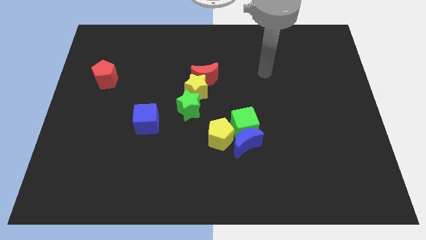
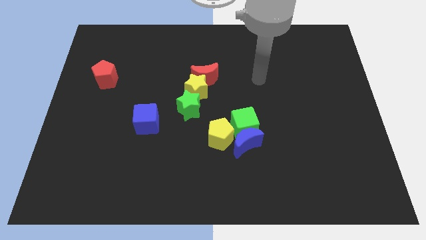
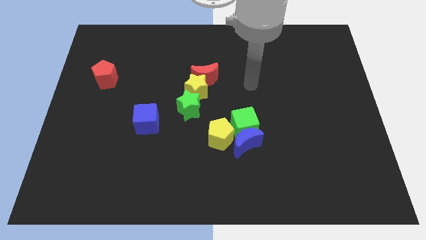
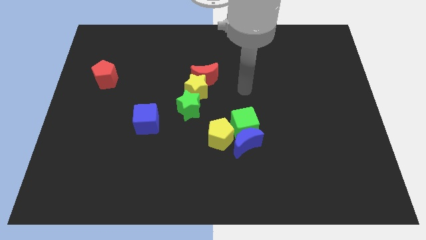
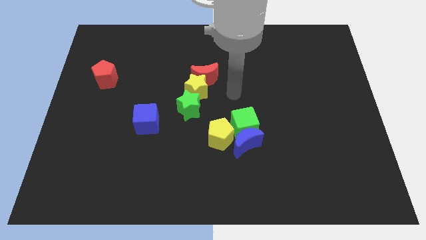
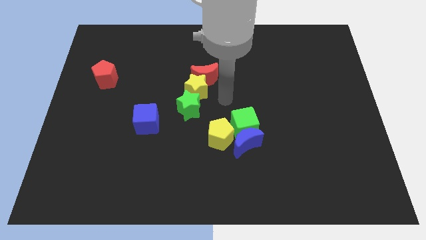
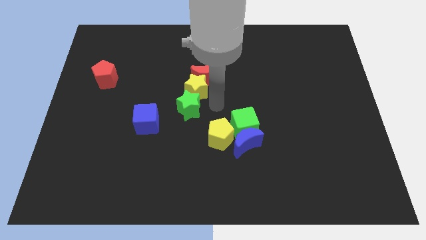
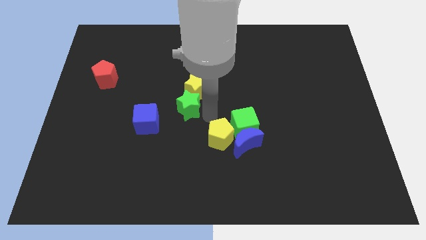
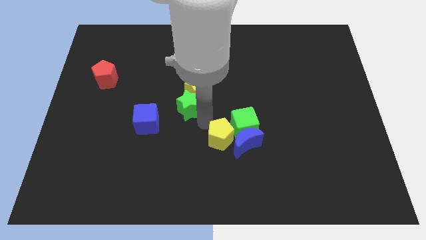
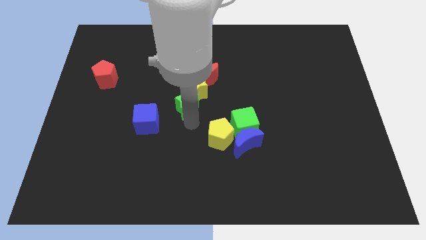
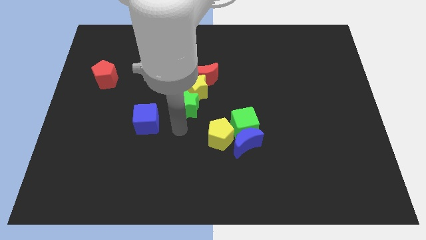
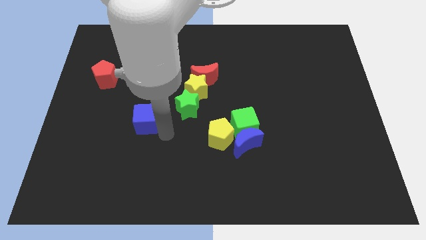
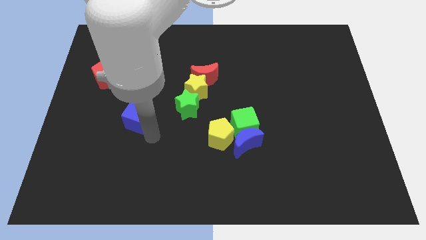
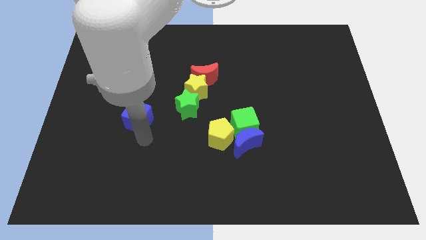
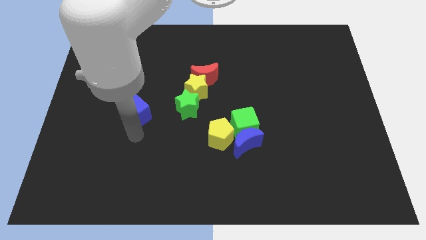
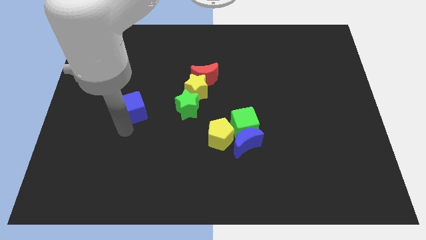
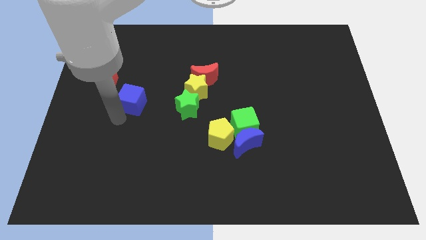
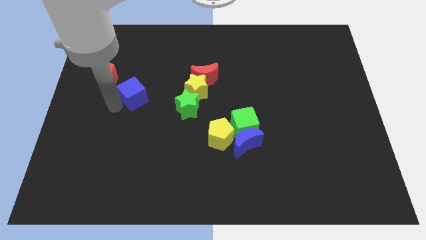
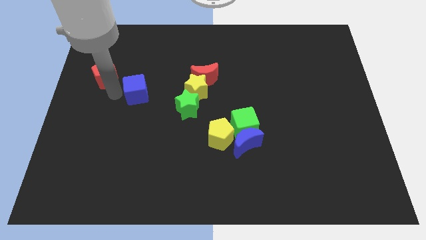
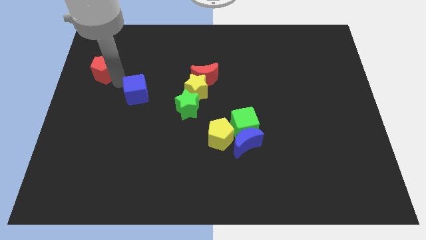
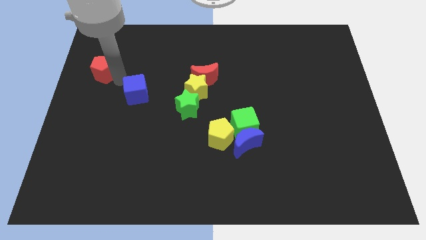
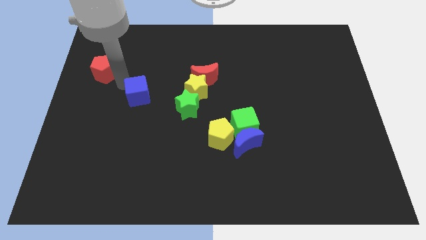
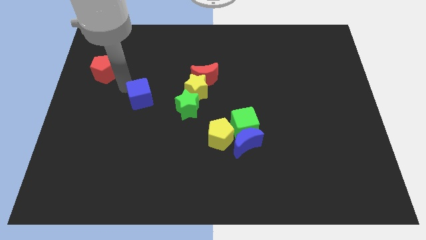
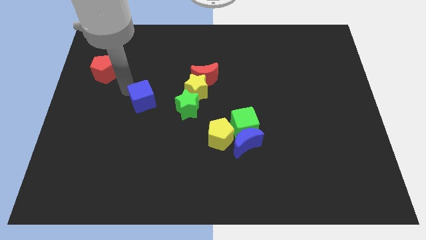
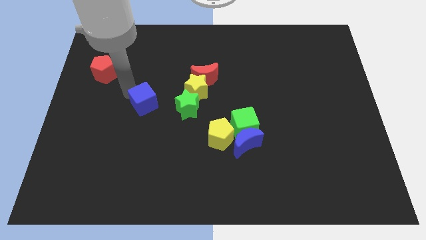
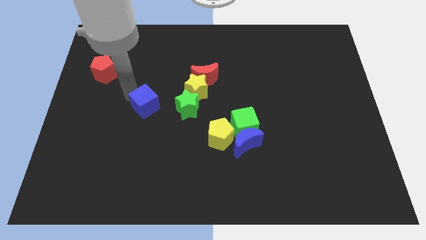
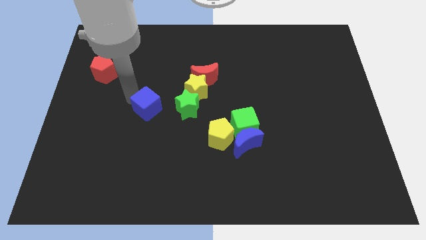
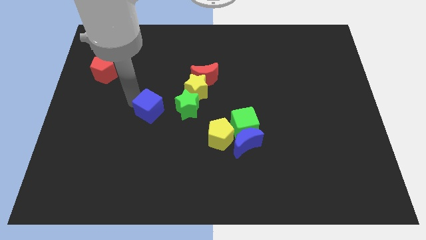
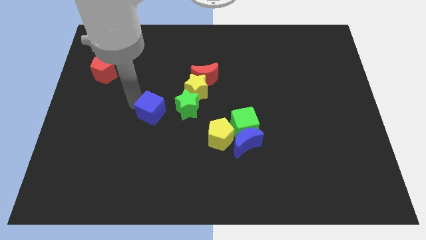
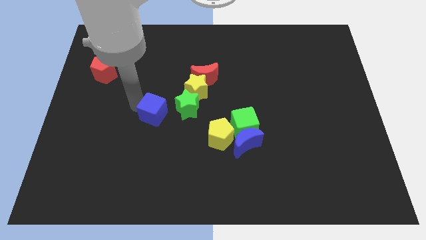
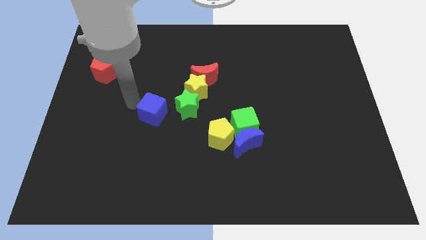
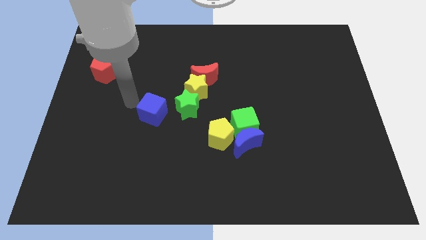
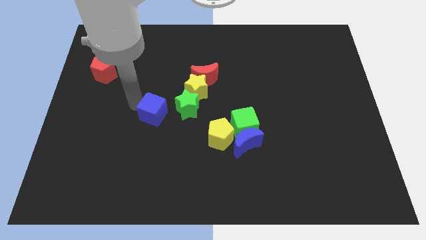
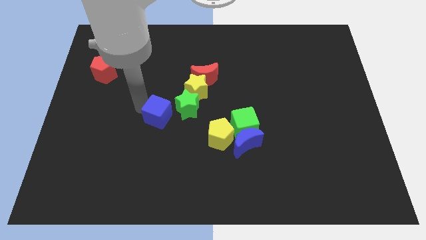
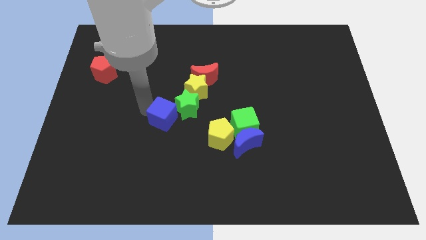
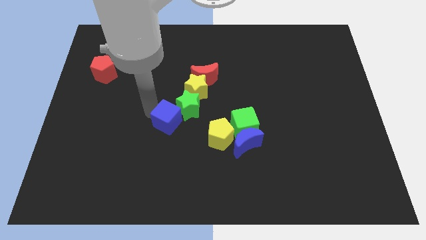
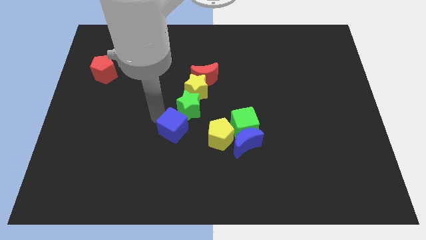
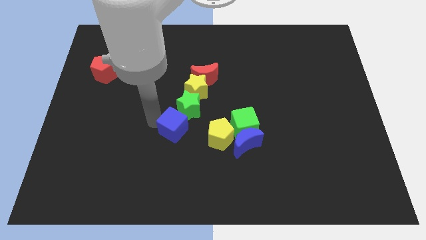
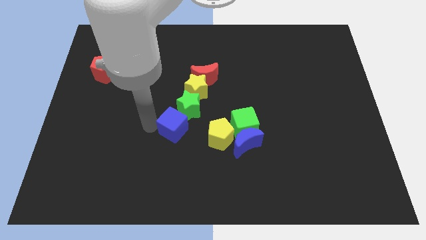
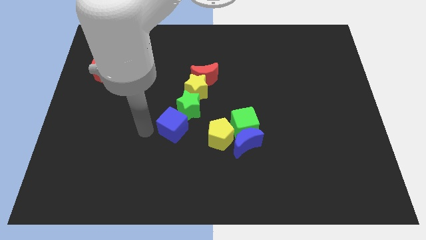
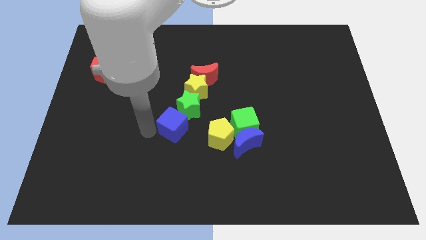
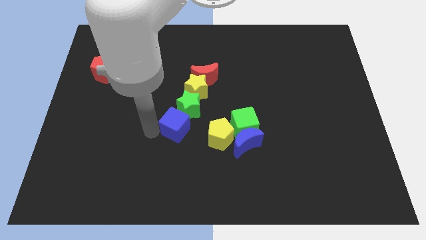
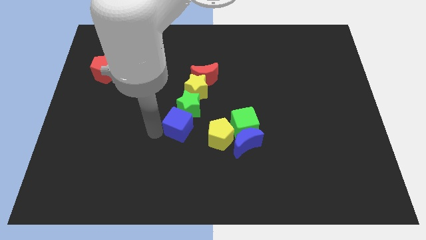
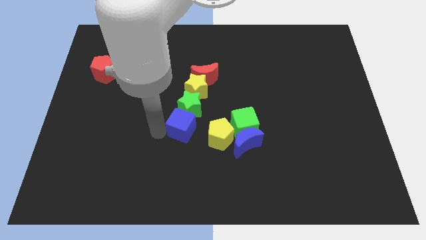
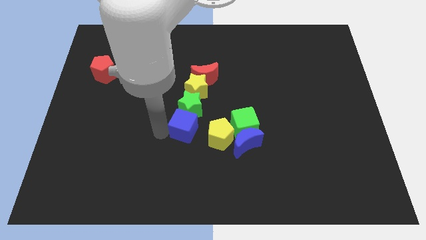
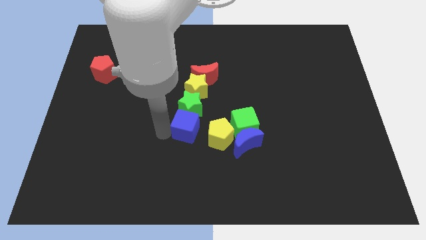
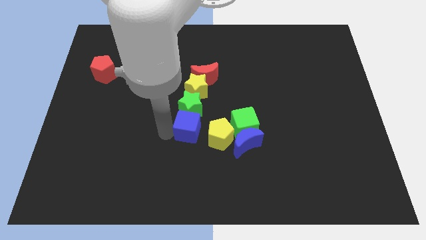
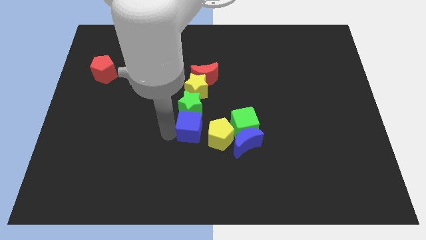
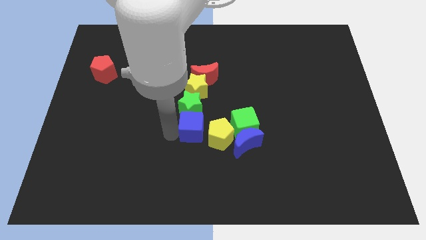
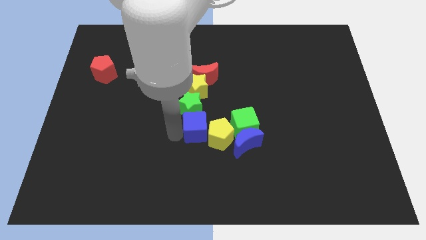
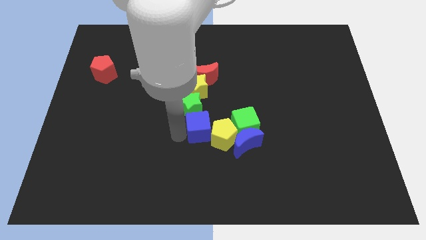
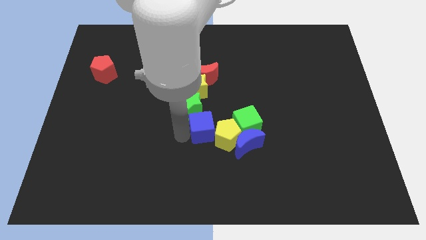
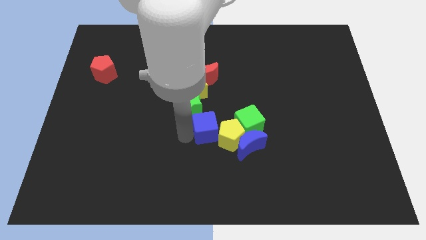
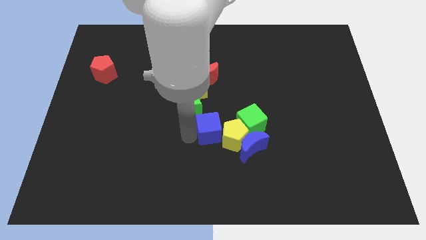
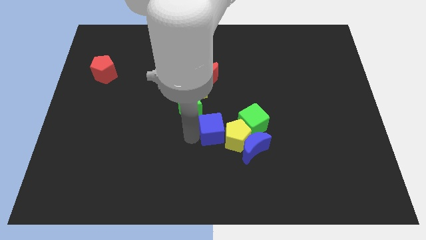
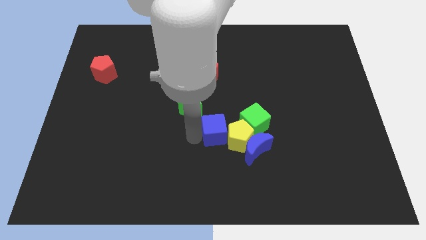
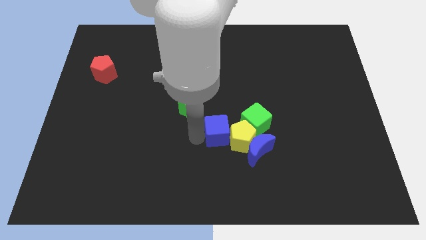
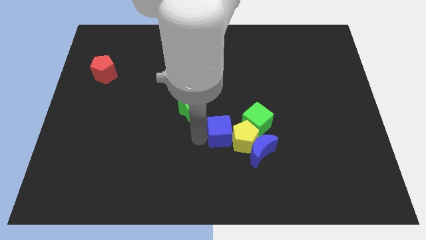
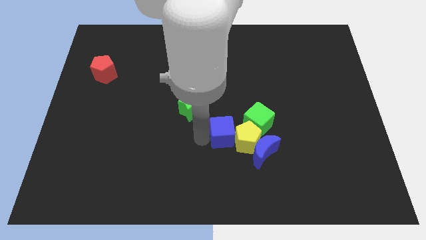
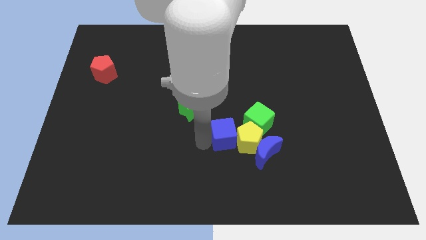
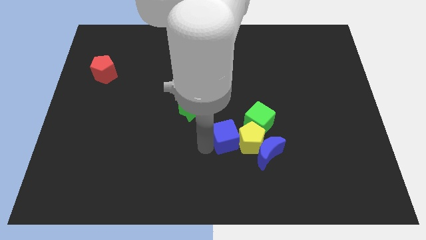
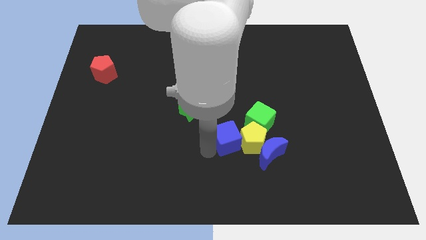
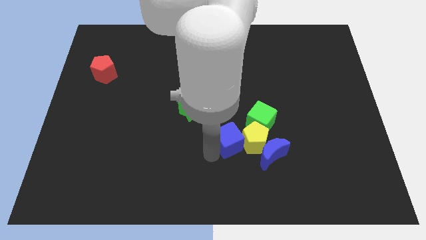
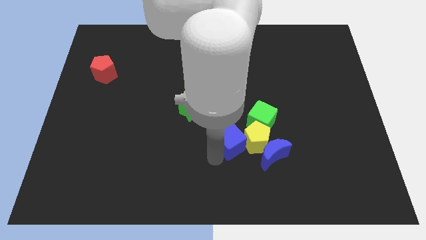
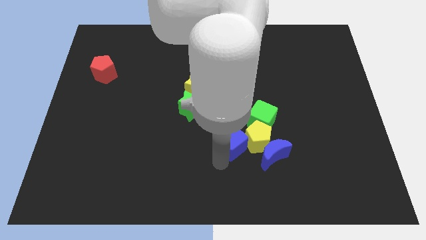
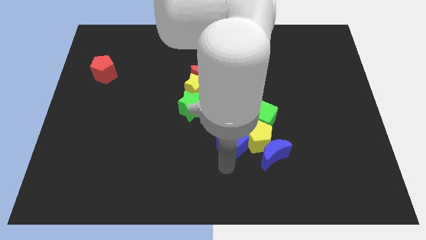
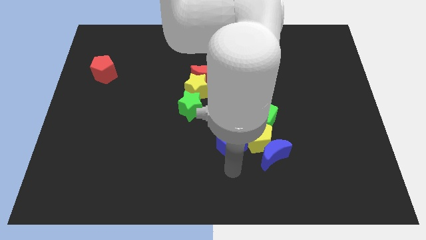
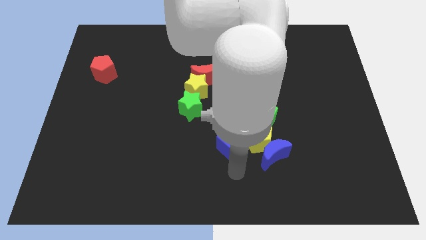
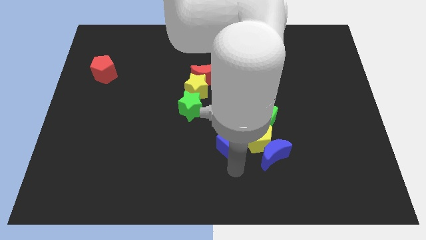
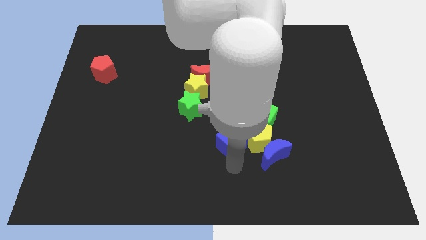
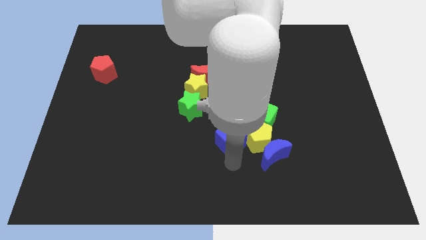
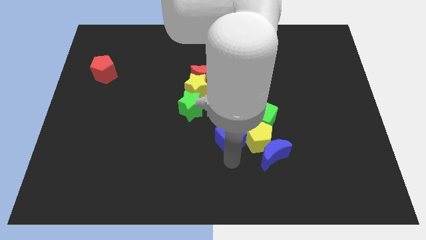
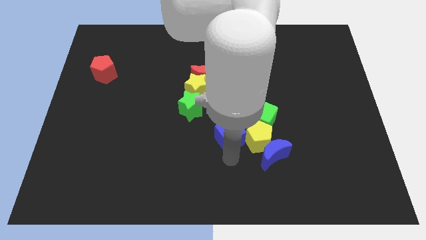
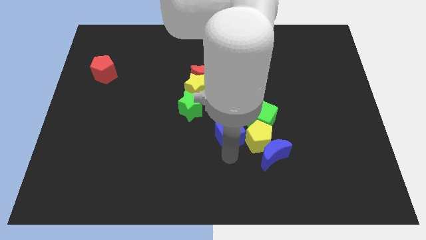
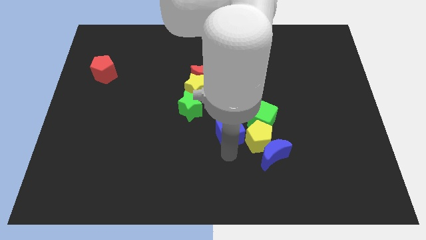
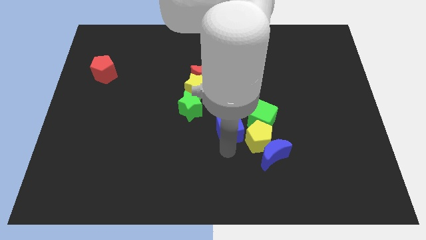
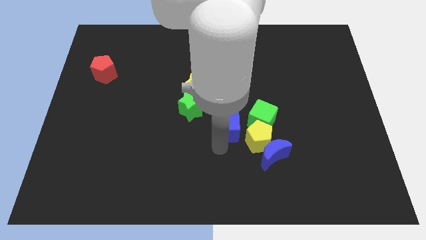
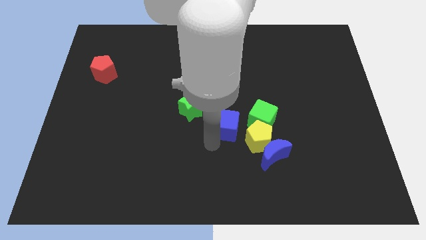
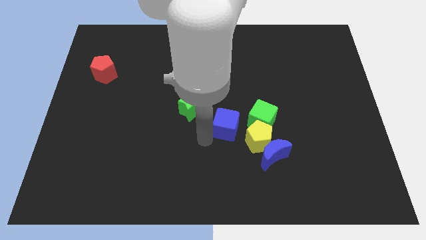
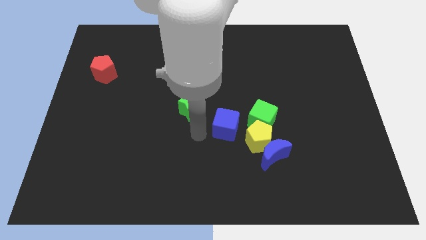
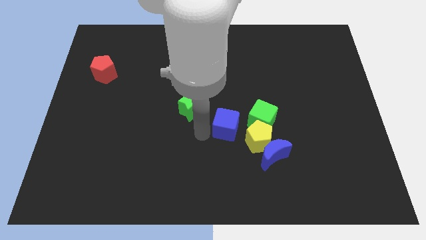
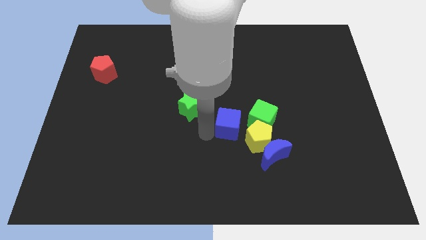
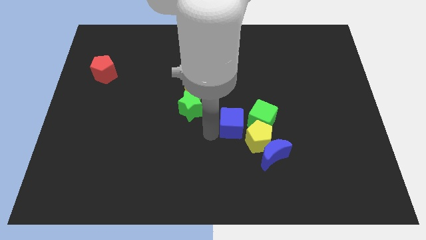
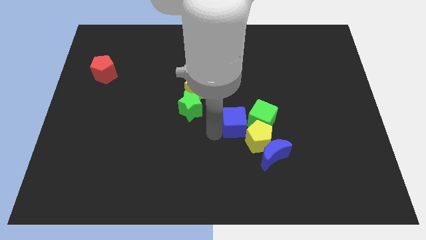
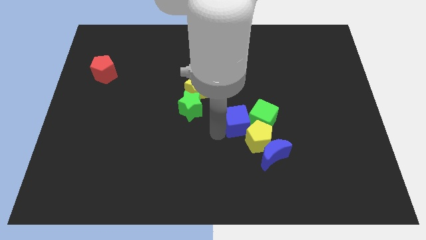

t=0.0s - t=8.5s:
put the blue cube towards the green cube
